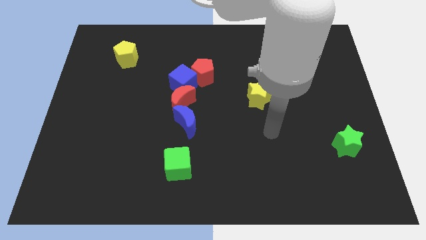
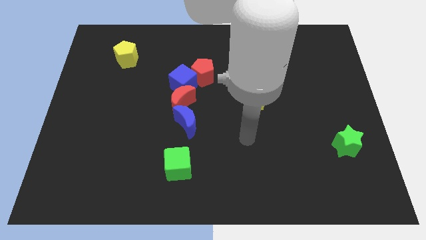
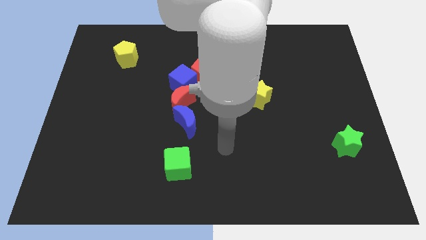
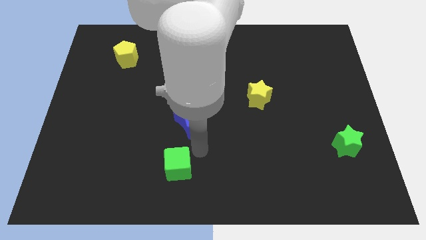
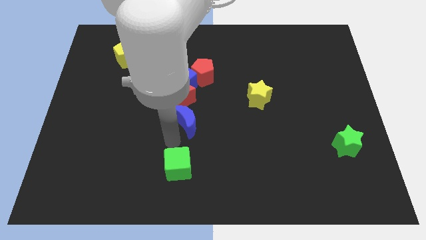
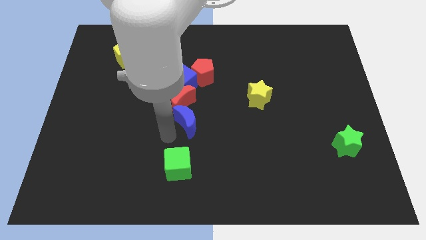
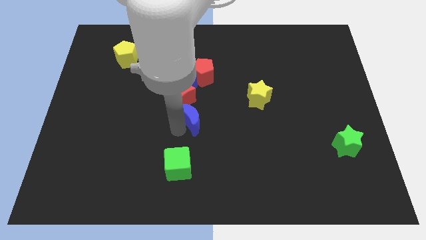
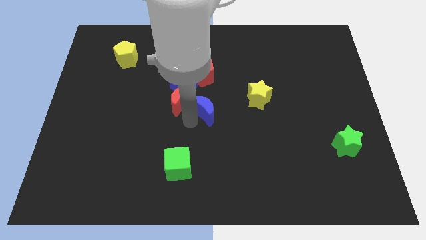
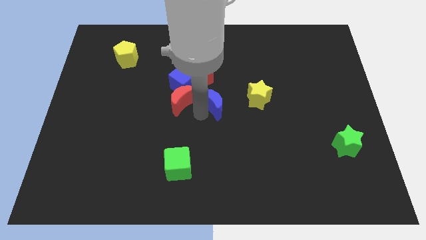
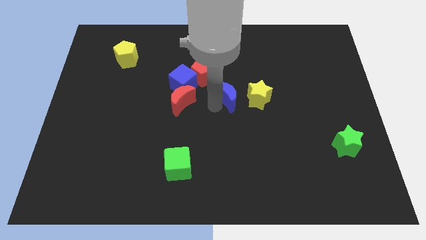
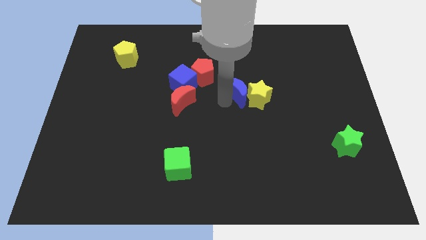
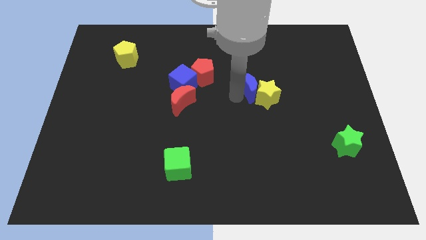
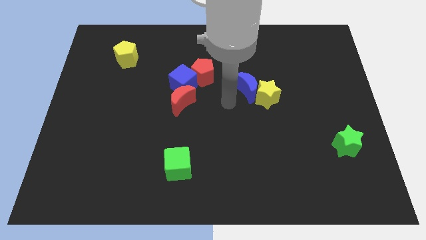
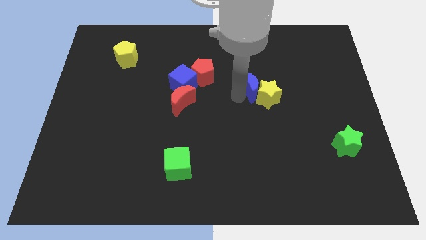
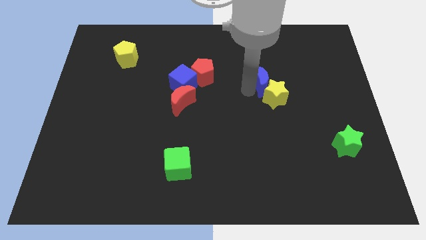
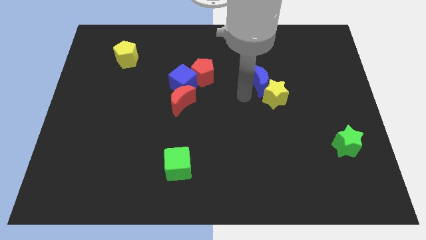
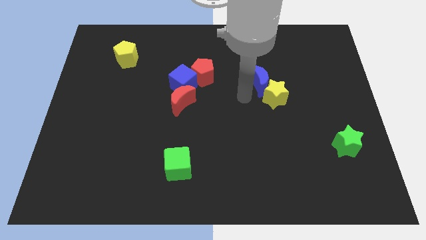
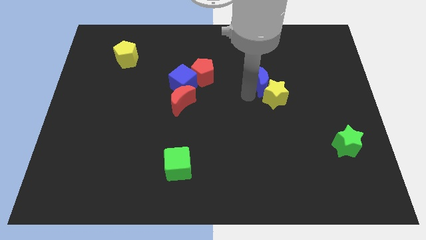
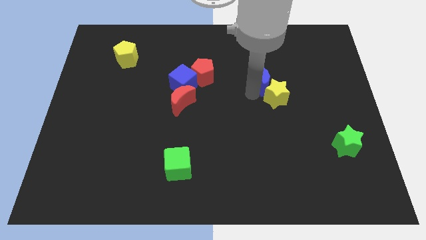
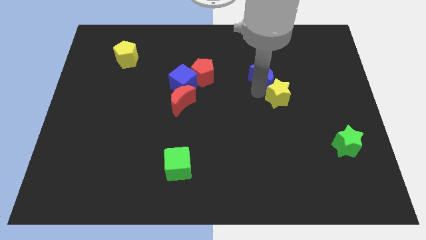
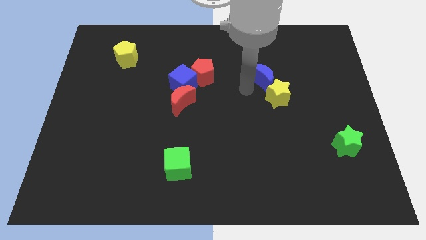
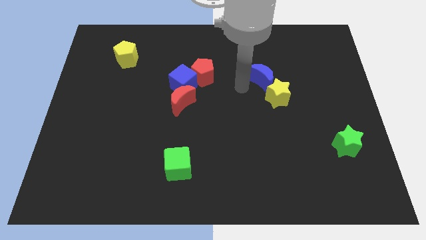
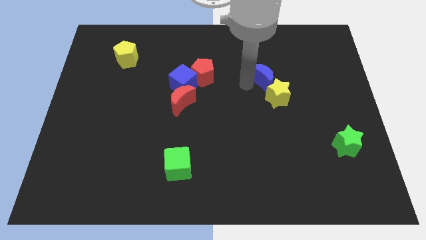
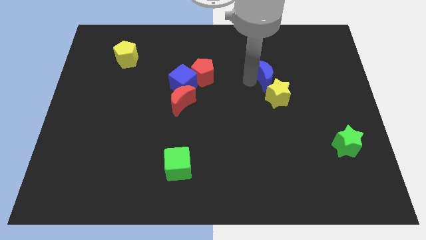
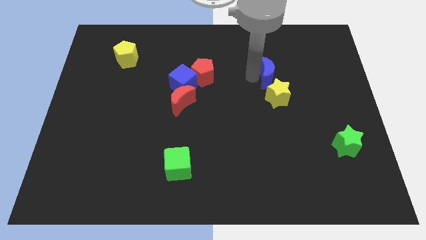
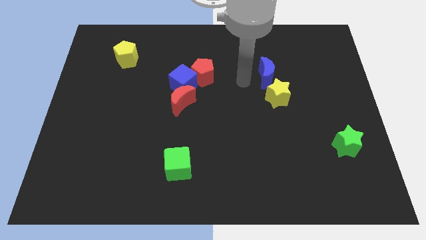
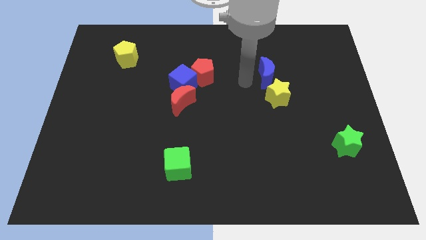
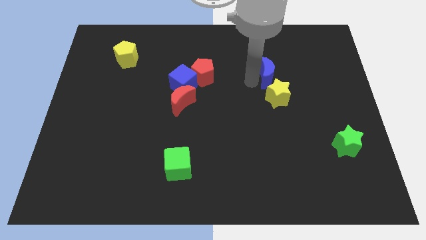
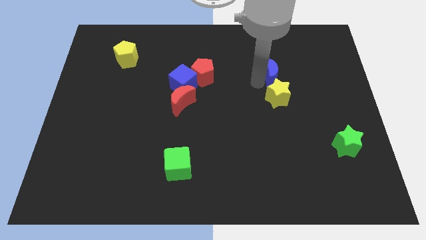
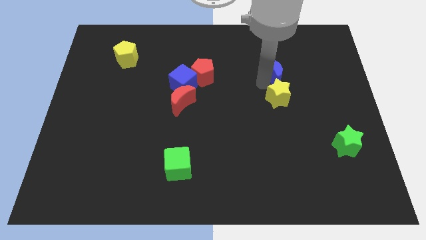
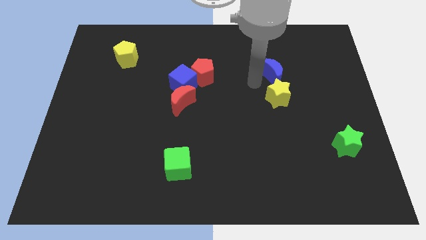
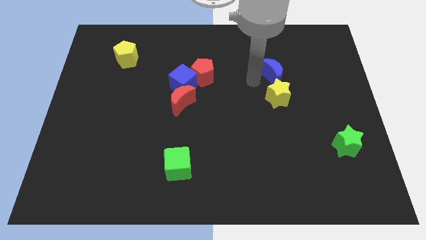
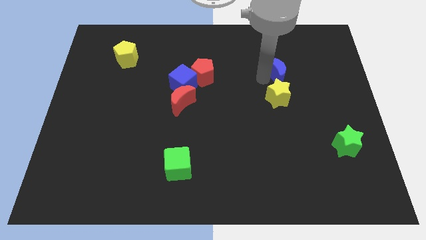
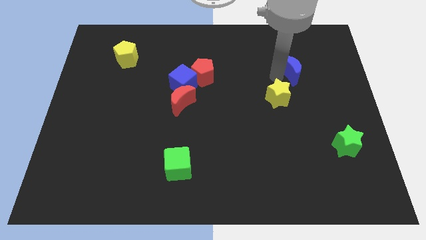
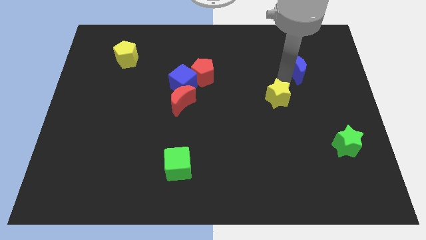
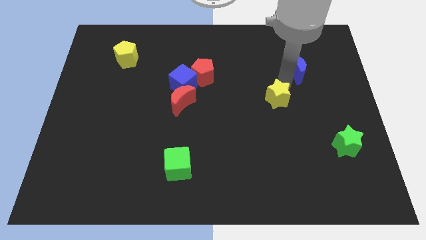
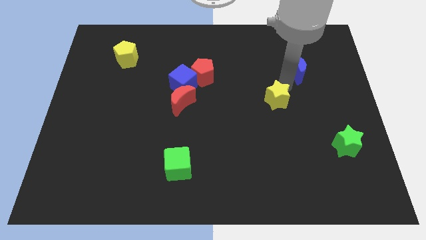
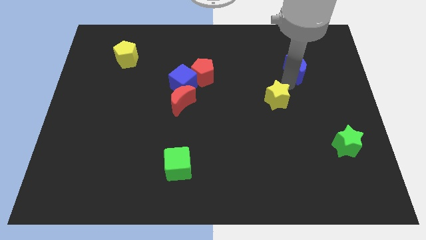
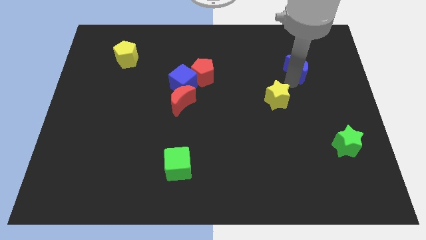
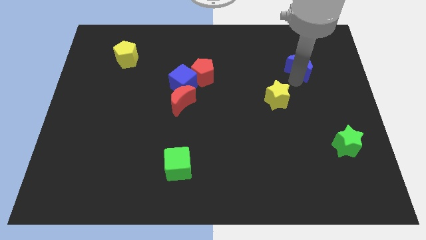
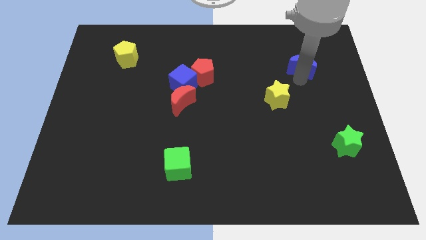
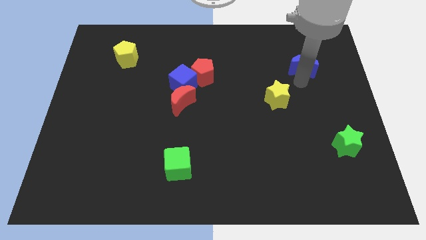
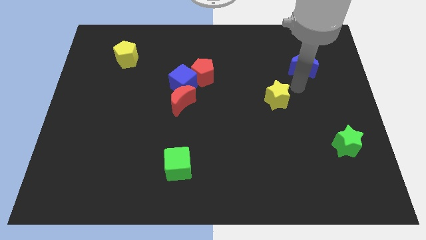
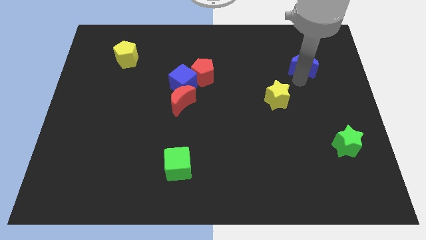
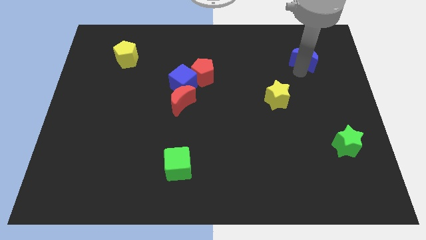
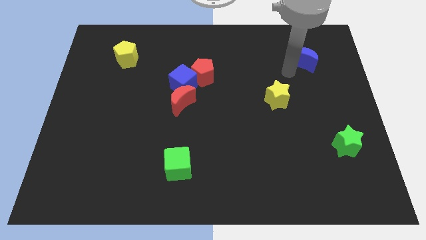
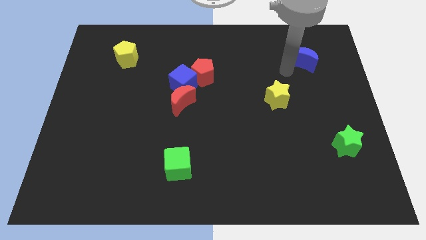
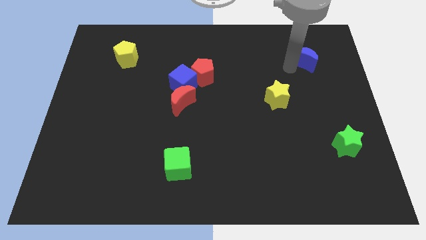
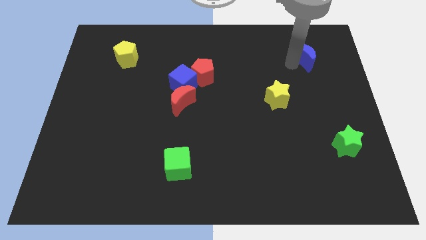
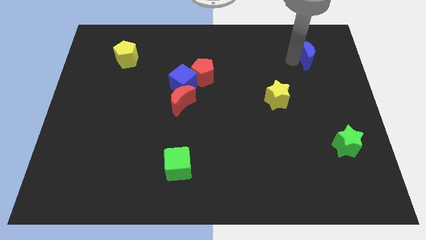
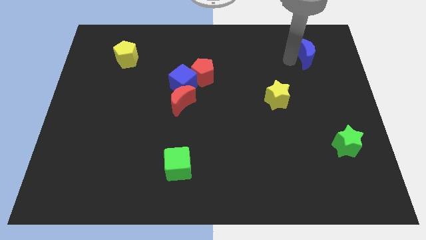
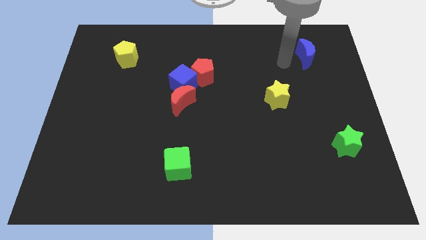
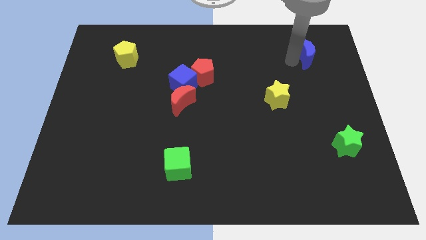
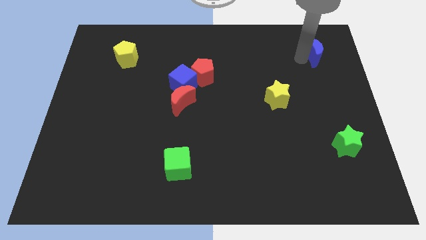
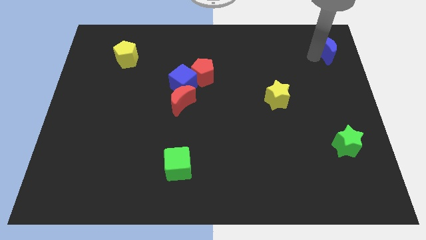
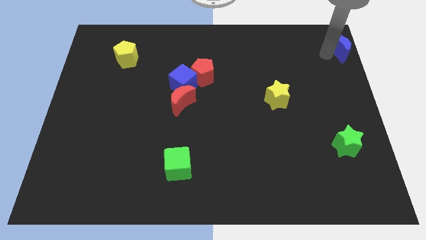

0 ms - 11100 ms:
put the blue moon to the top right

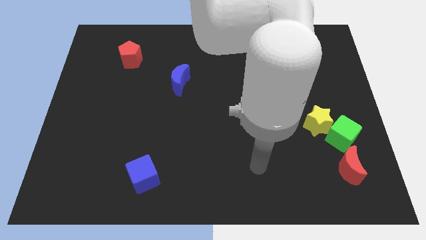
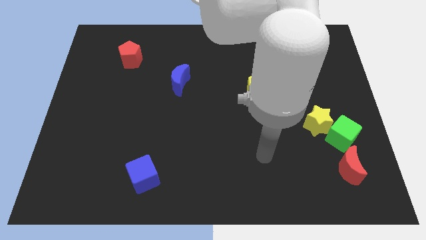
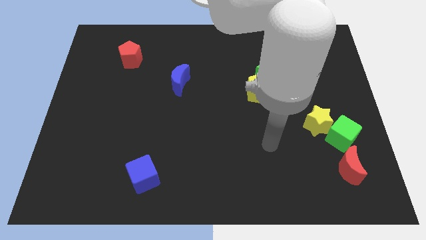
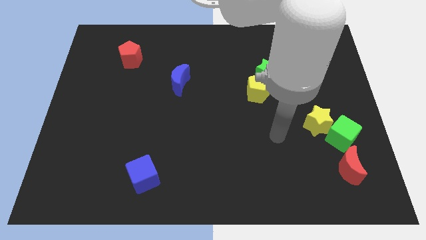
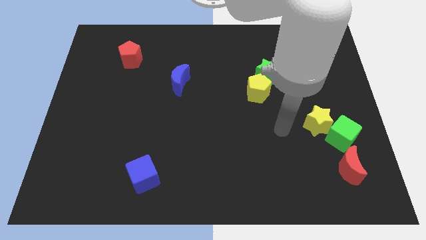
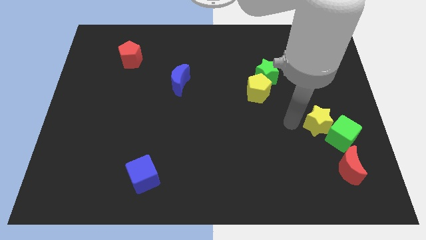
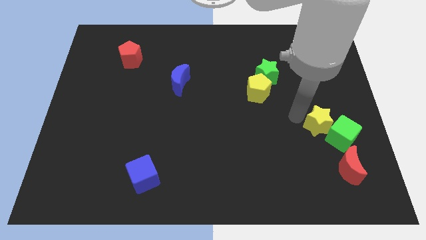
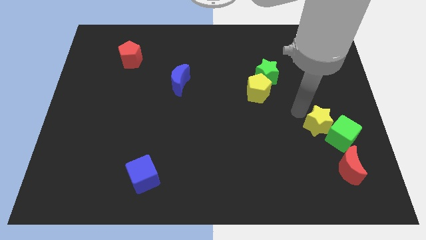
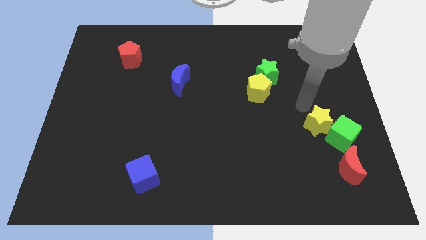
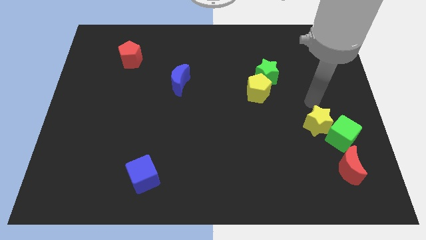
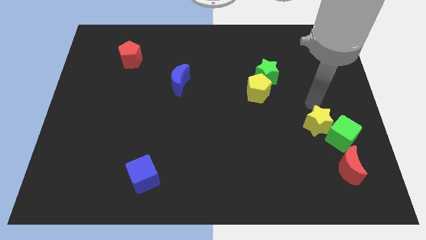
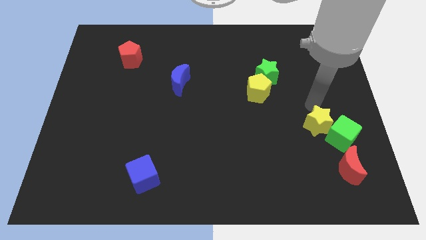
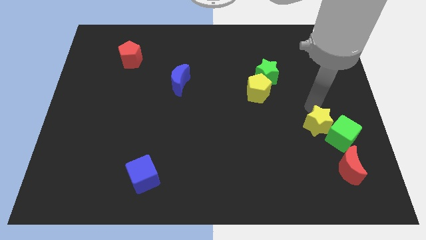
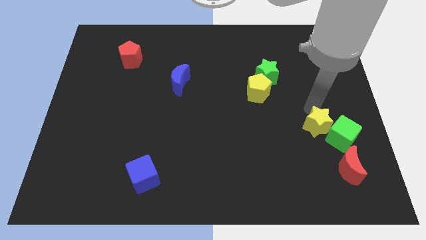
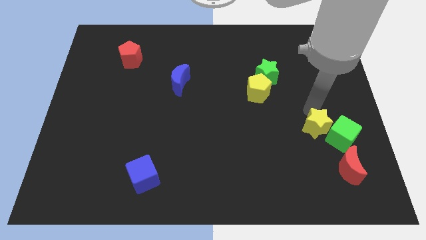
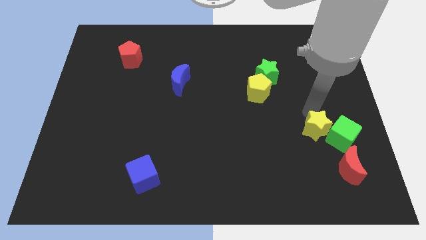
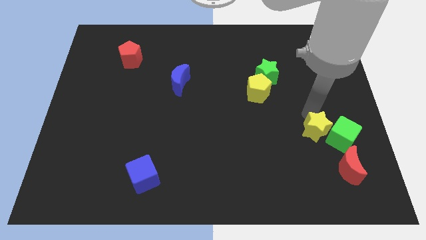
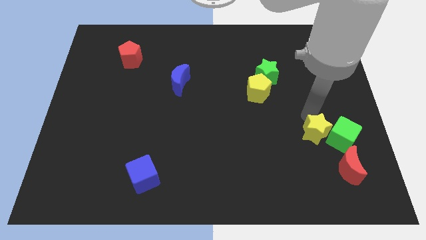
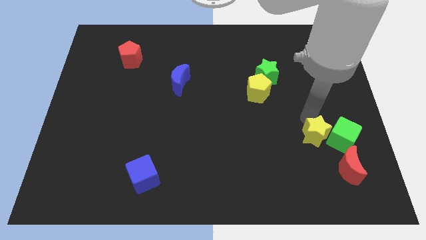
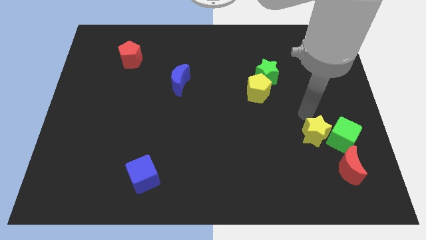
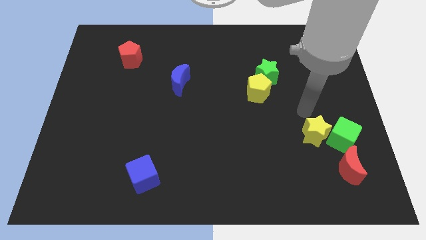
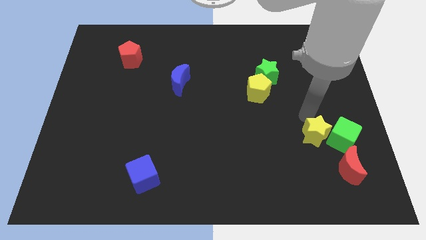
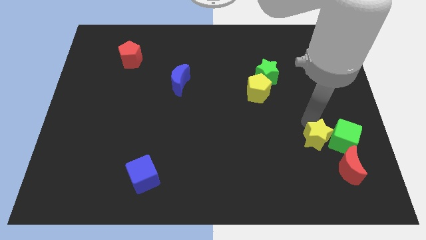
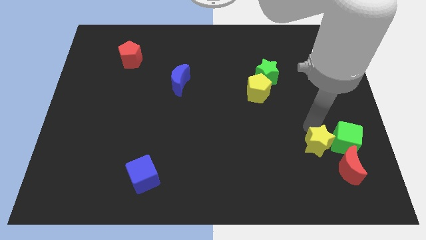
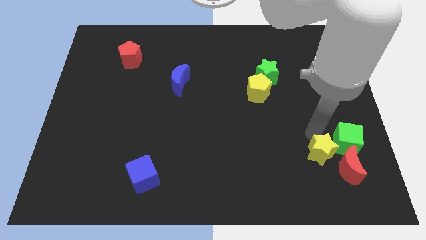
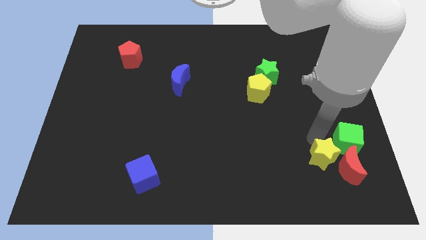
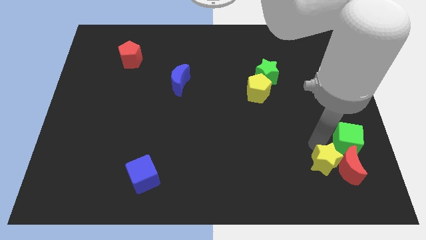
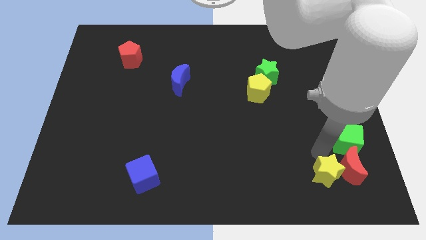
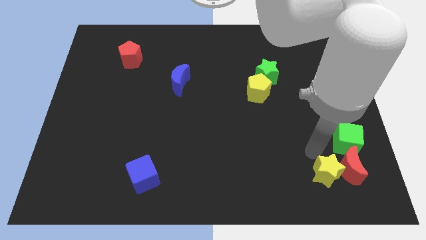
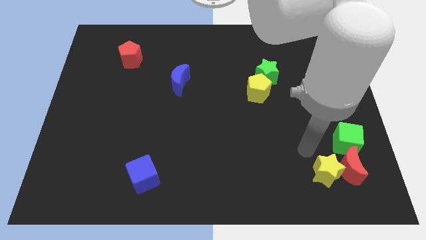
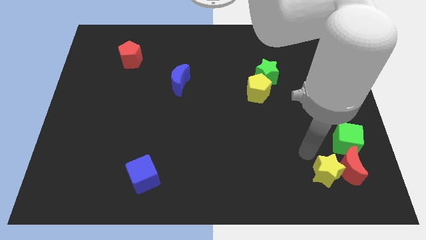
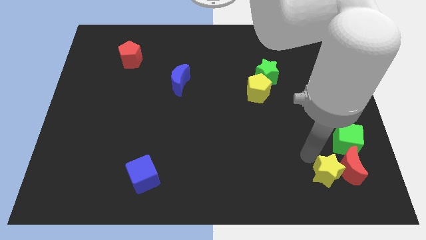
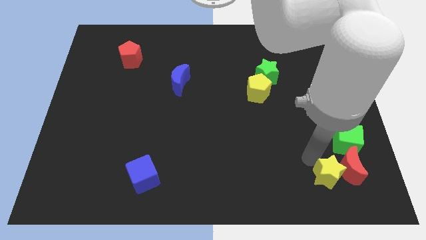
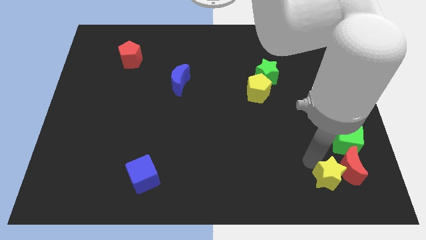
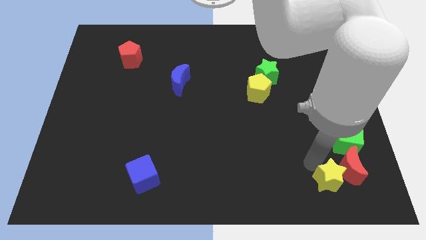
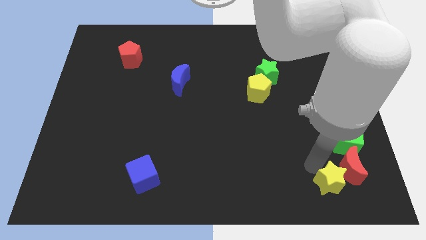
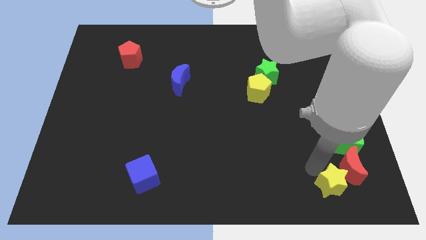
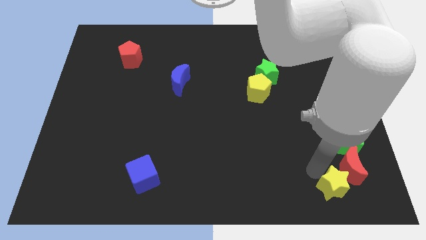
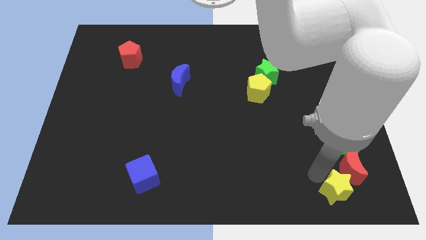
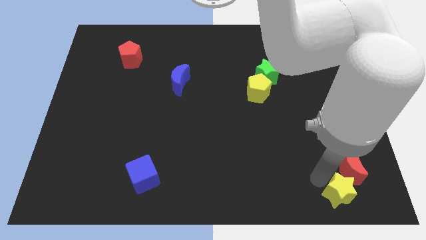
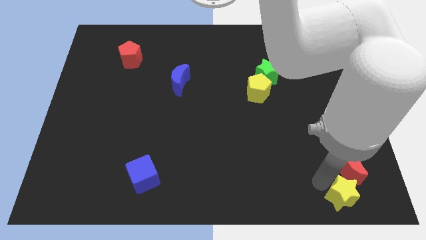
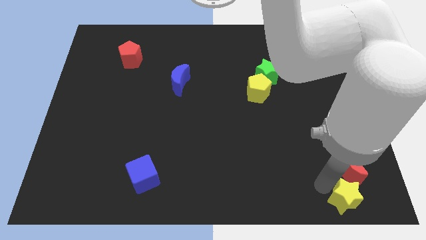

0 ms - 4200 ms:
move the yellow star to the bottom right
